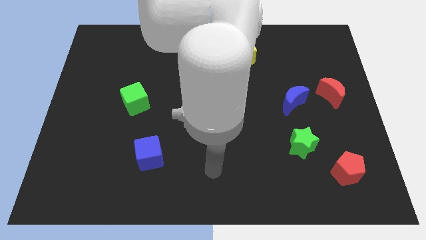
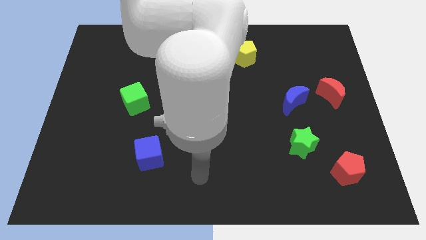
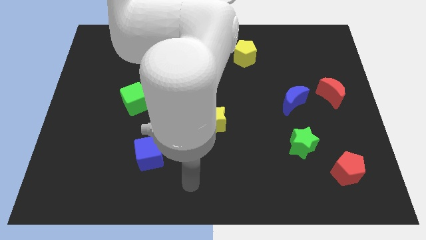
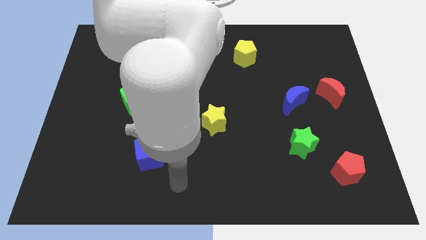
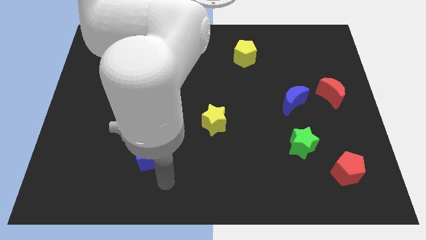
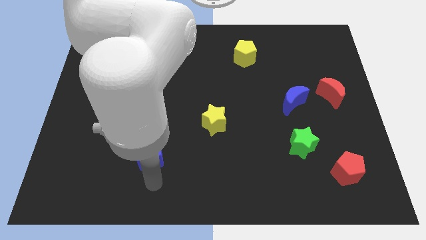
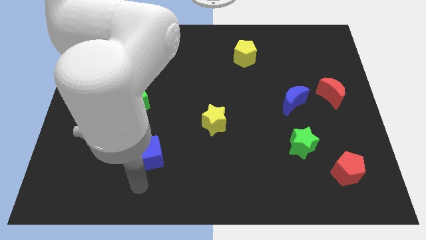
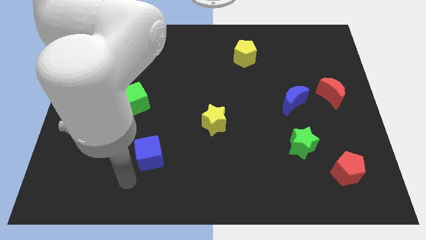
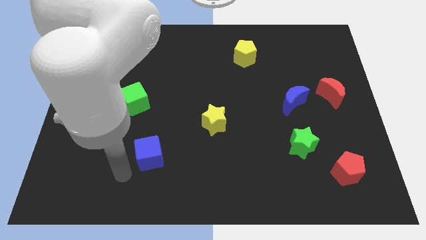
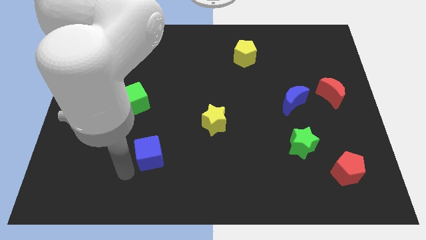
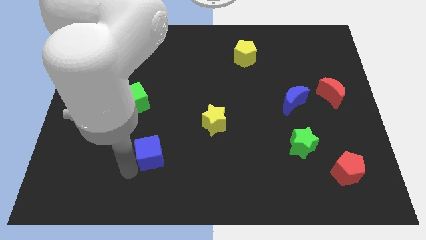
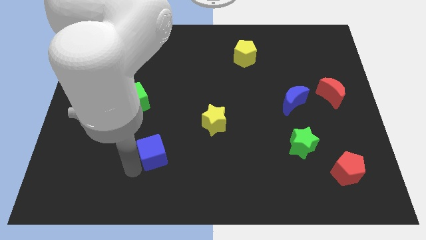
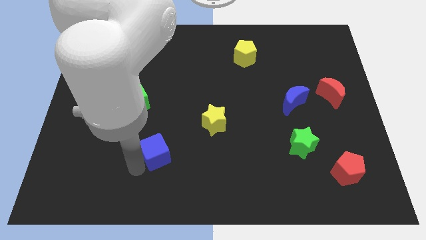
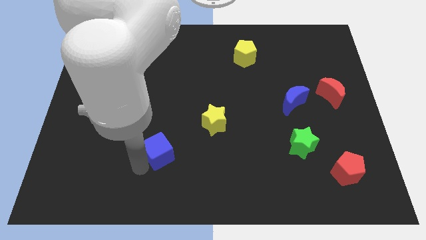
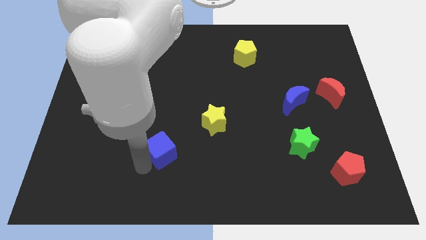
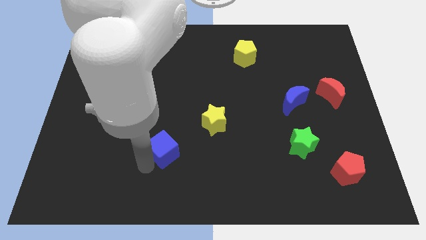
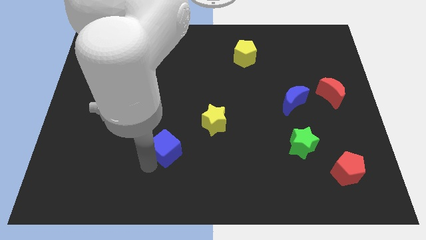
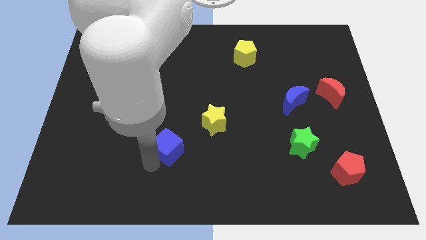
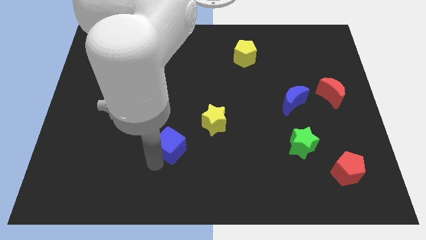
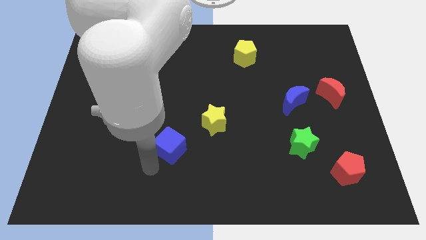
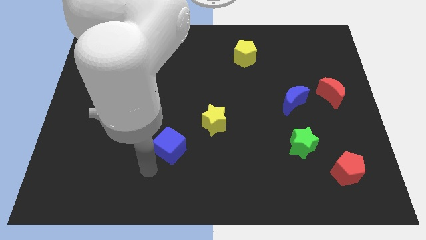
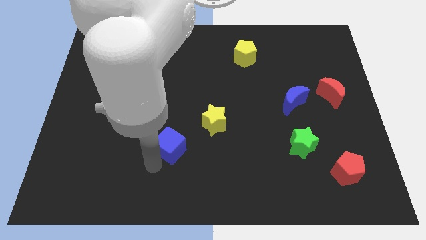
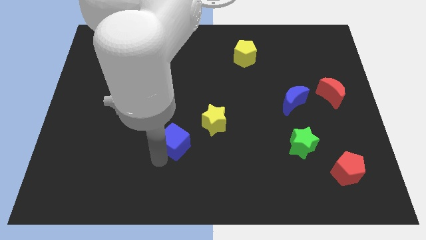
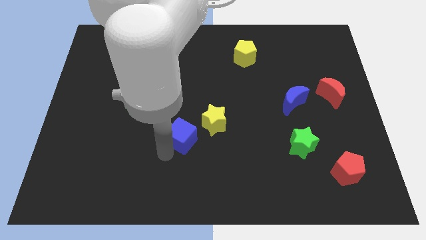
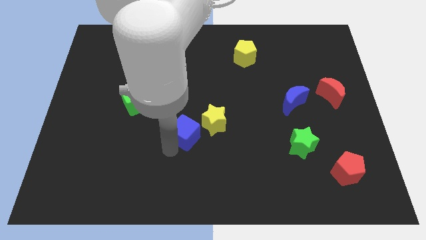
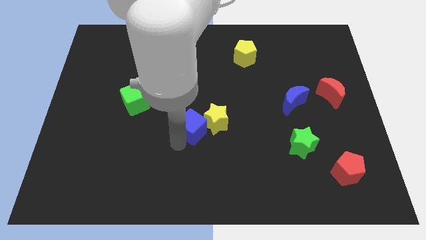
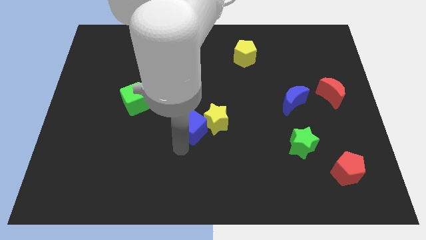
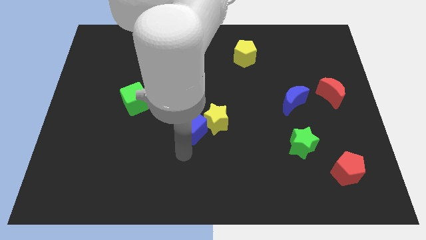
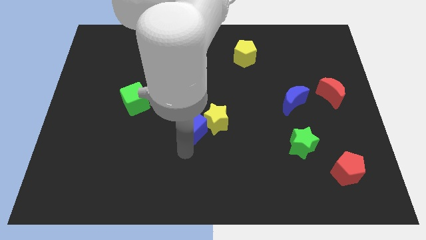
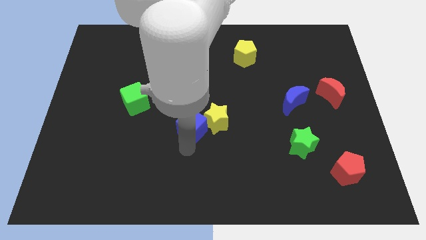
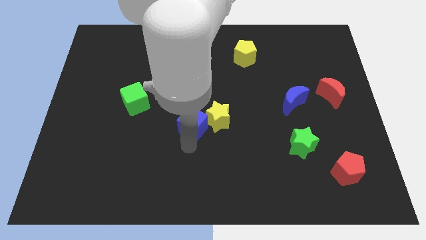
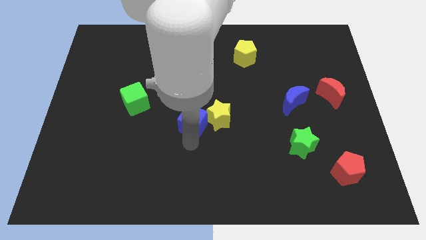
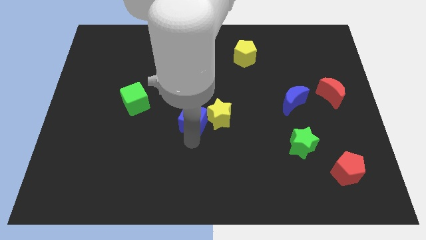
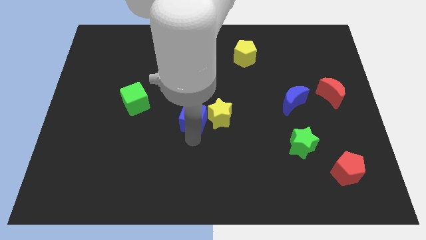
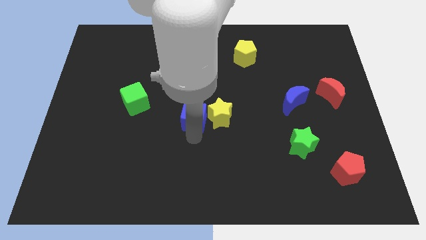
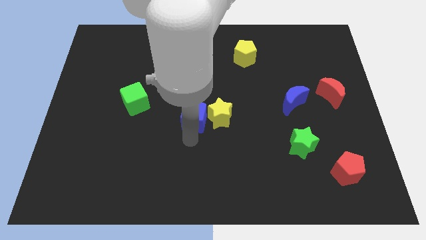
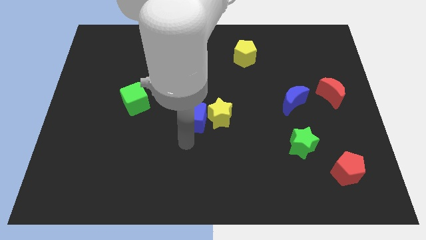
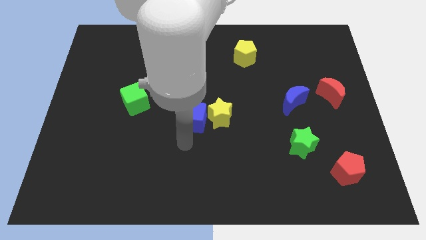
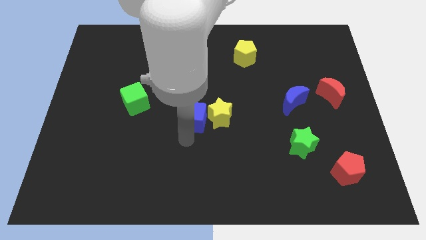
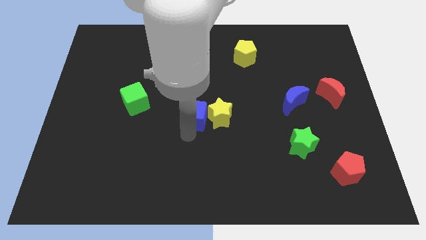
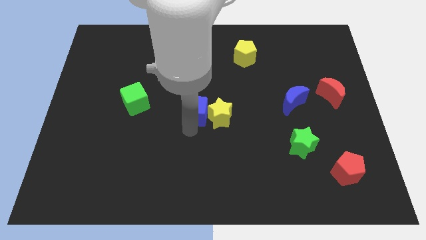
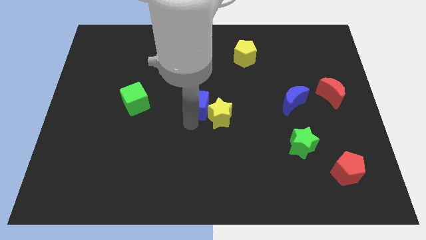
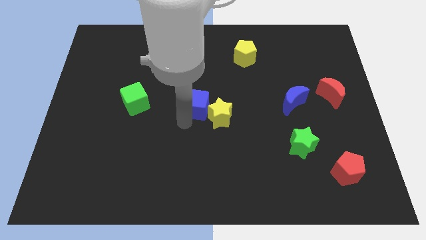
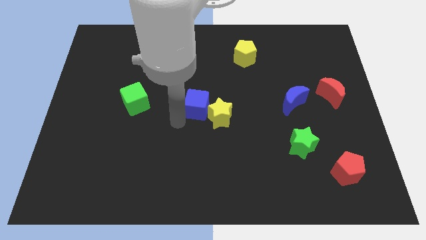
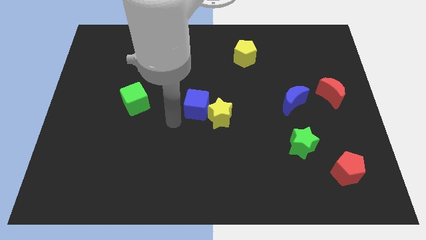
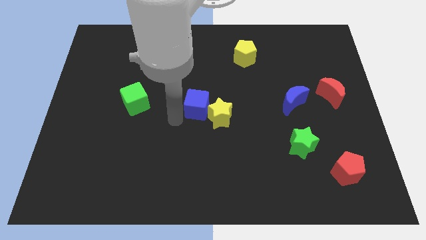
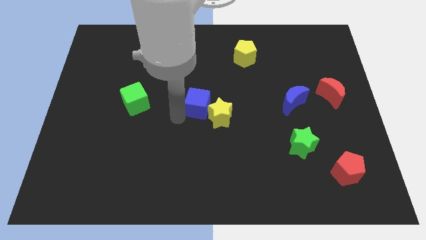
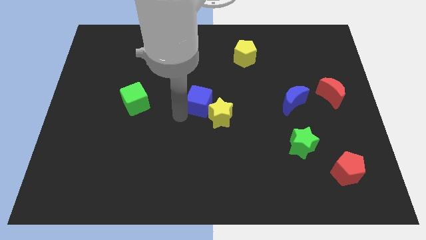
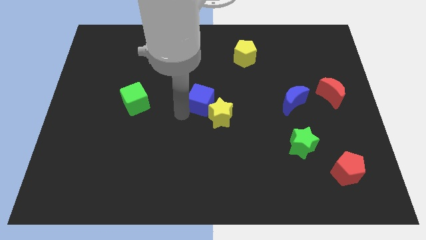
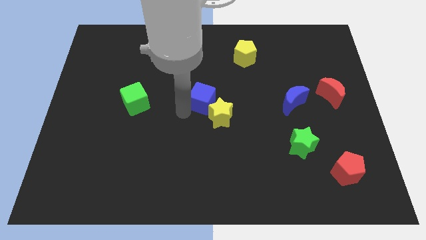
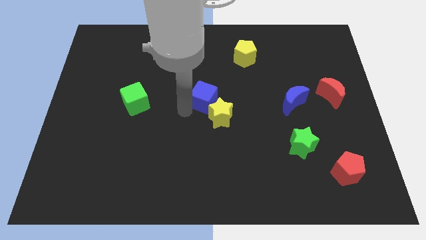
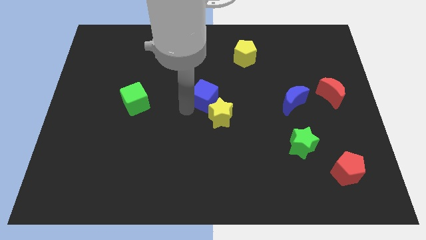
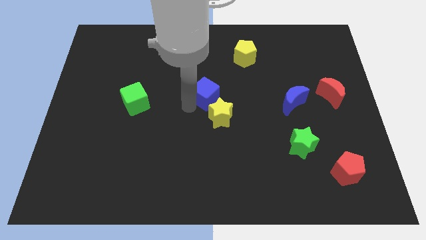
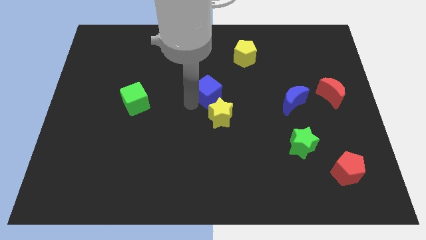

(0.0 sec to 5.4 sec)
push the blue cube diagonally upwards and right

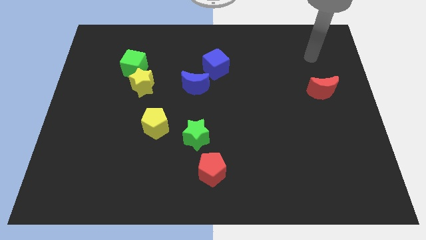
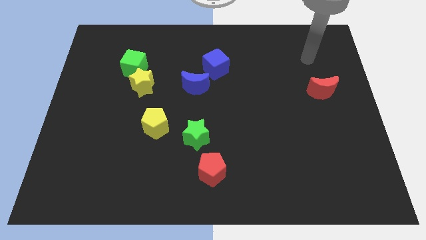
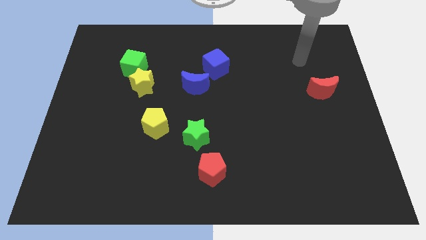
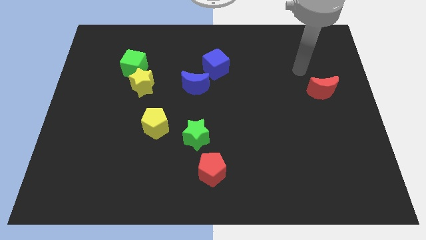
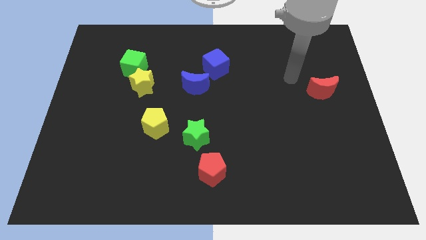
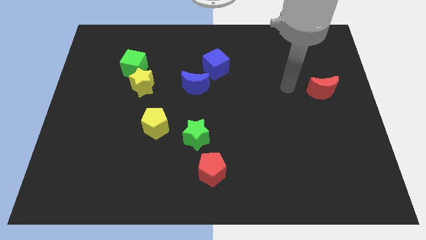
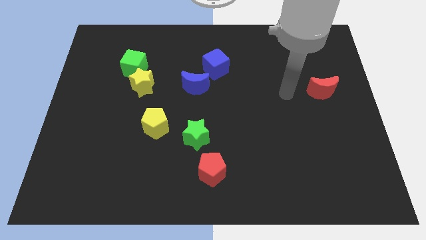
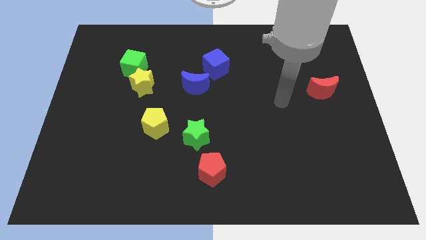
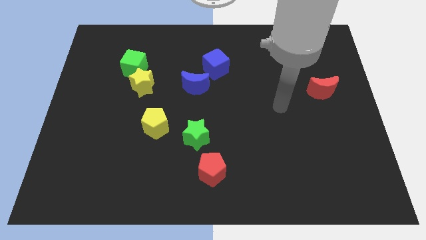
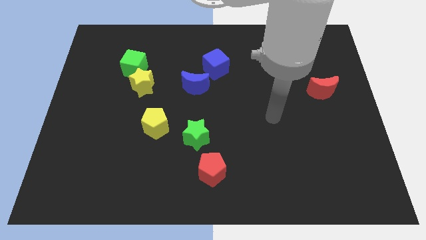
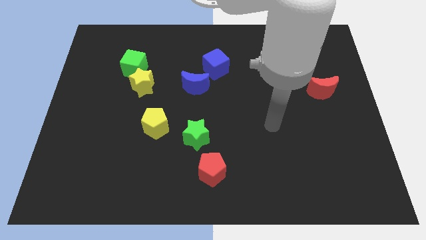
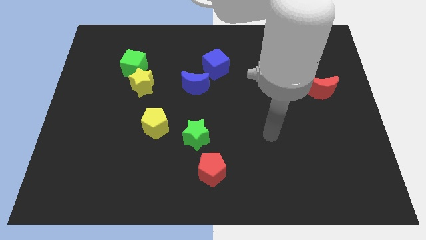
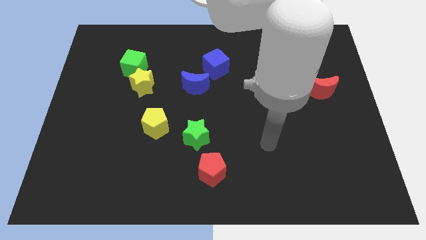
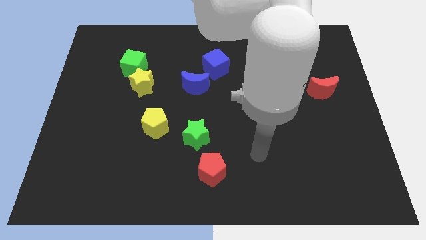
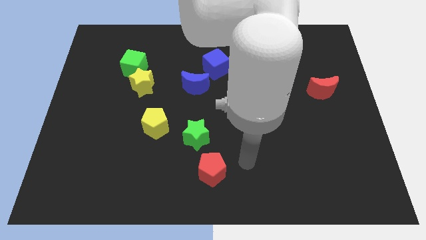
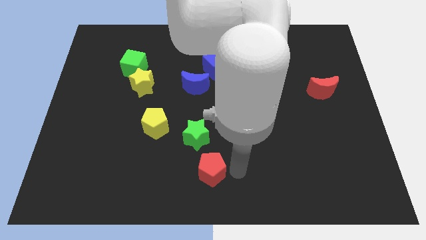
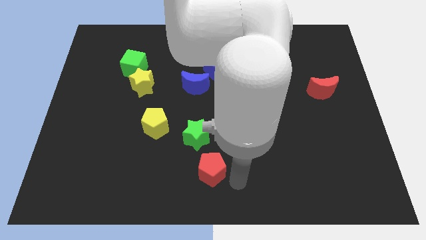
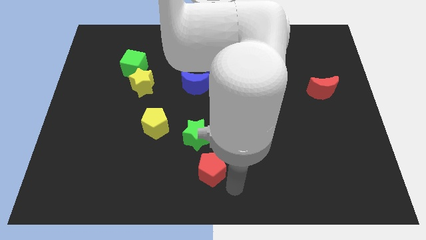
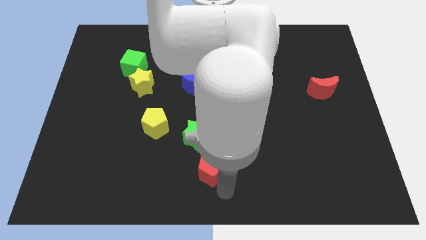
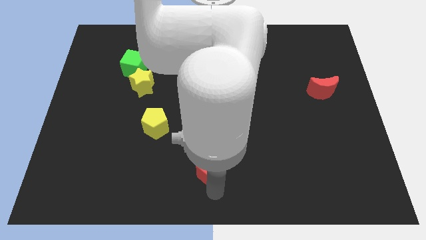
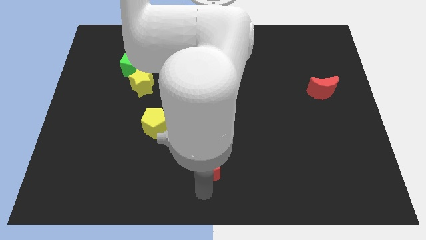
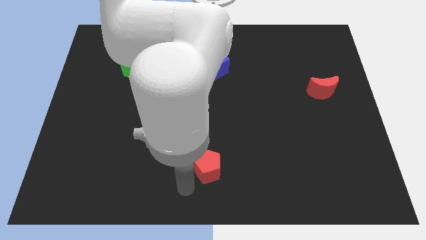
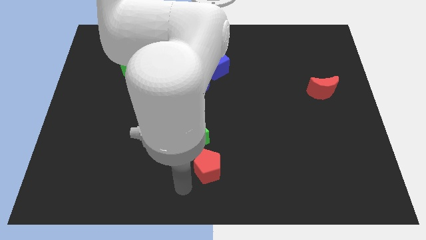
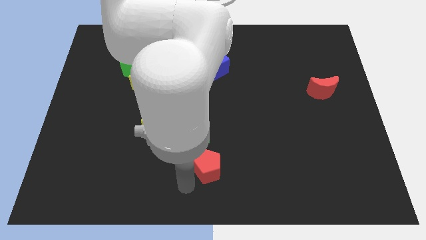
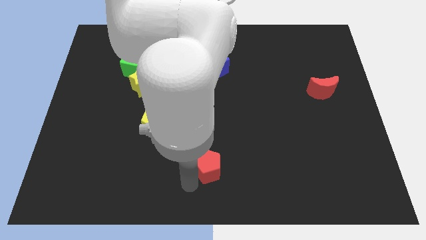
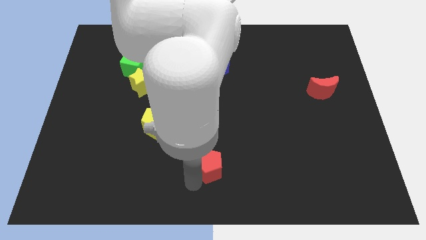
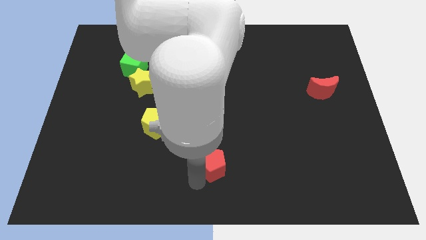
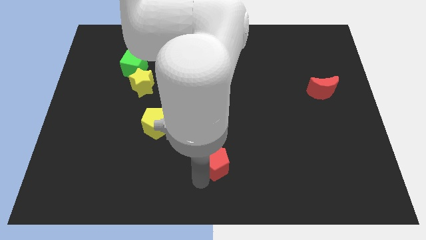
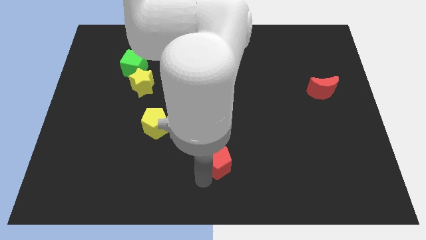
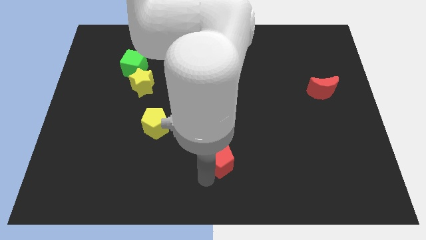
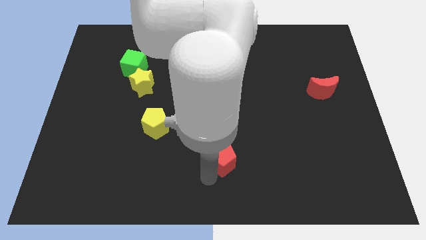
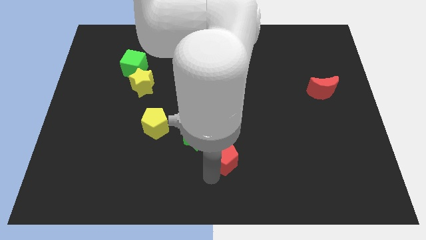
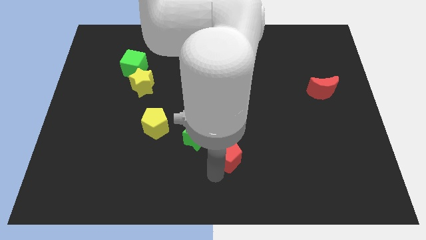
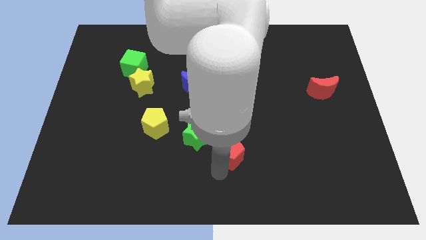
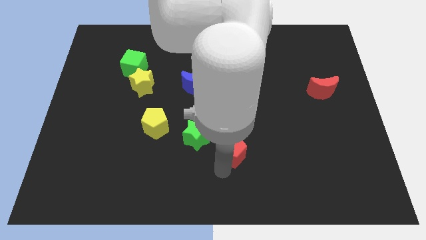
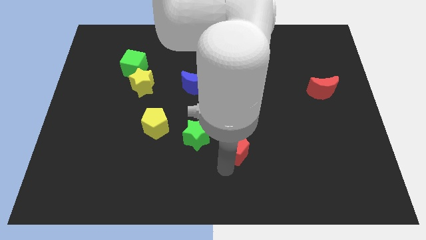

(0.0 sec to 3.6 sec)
slightly slide the red pentagon diagonally upwards and right
